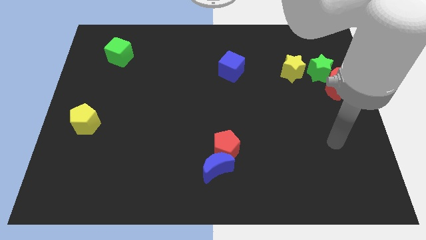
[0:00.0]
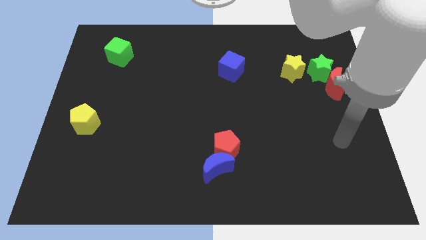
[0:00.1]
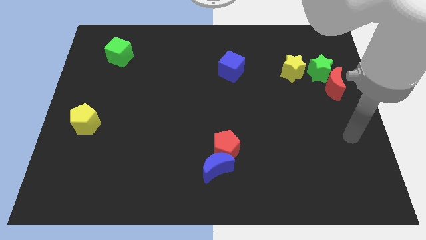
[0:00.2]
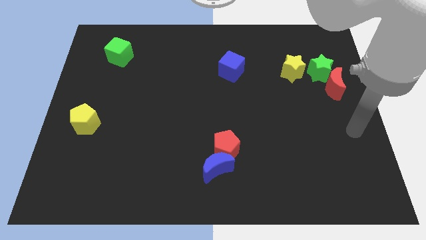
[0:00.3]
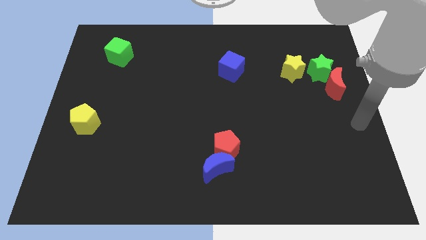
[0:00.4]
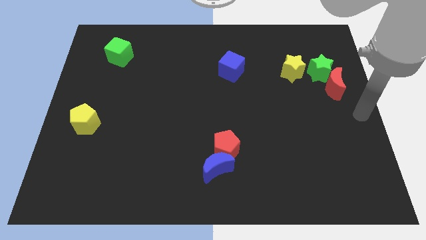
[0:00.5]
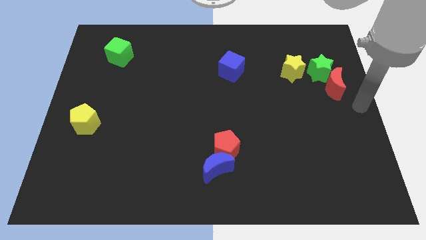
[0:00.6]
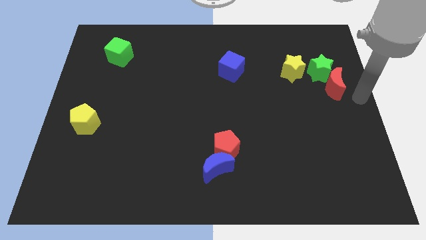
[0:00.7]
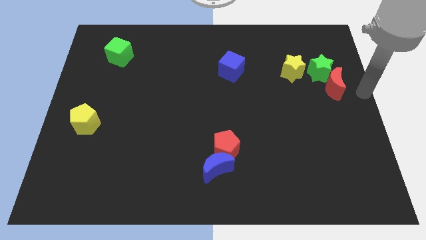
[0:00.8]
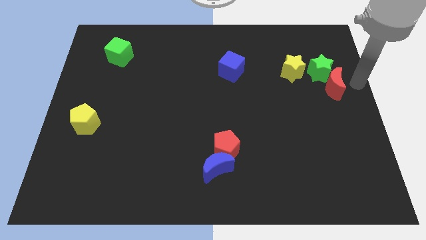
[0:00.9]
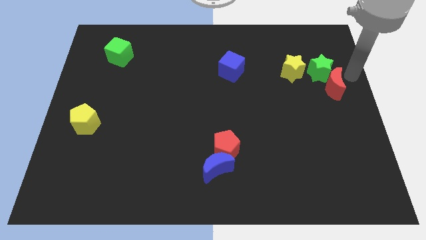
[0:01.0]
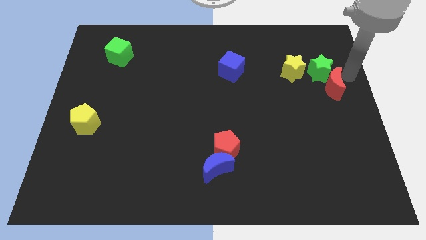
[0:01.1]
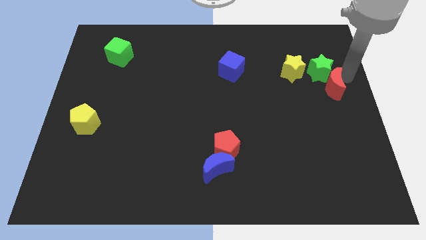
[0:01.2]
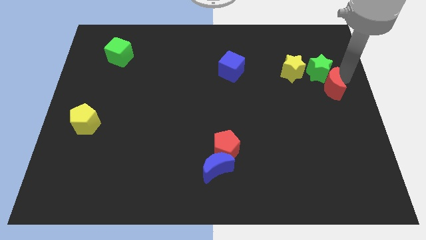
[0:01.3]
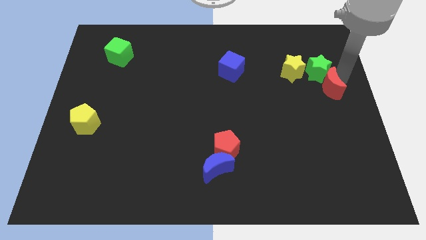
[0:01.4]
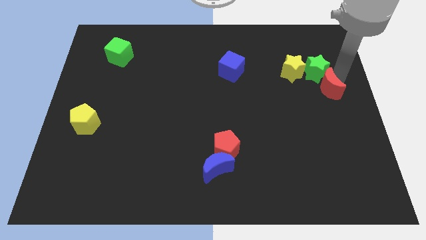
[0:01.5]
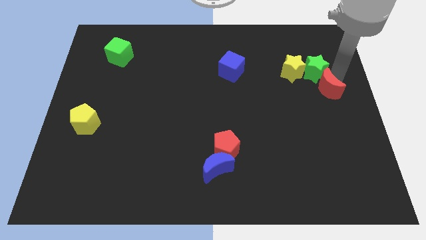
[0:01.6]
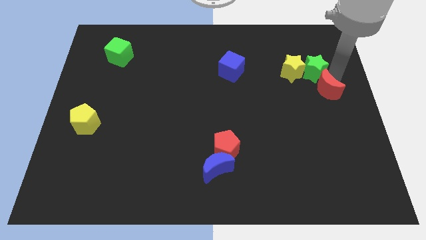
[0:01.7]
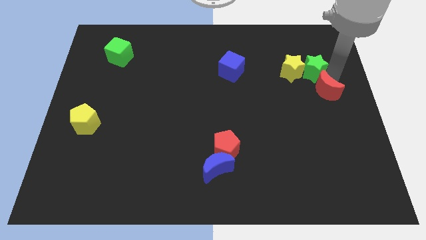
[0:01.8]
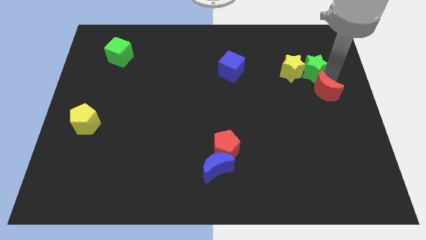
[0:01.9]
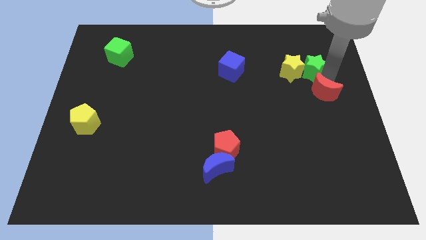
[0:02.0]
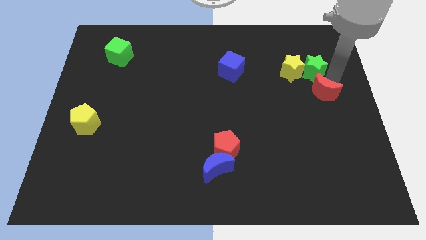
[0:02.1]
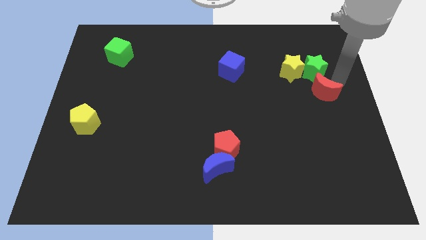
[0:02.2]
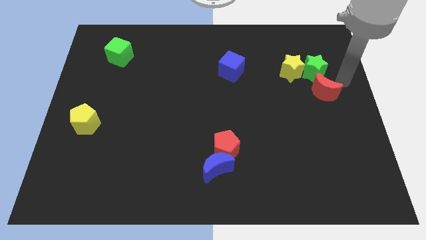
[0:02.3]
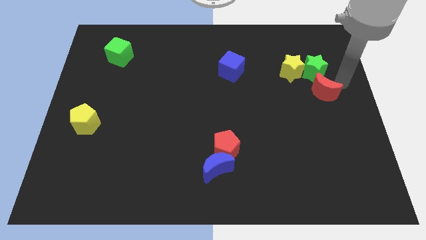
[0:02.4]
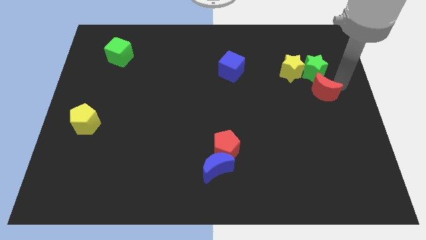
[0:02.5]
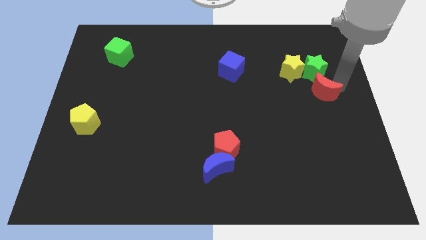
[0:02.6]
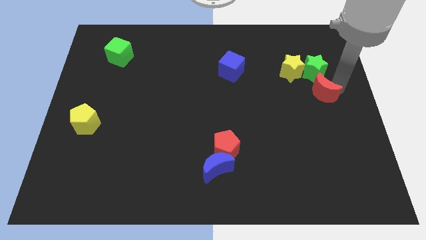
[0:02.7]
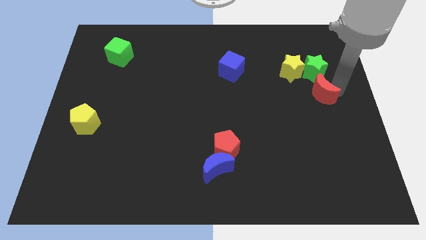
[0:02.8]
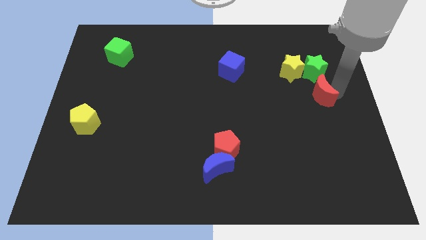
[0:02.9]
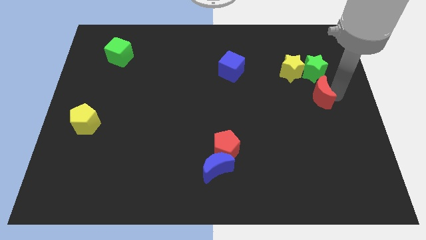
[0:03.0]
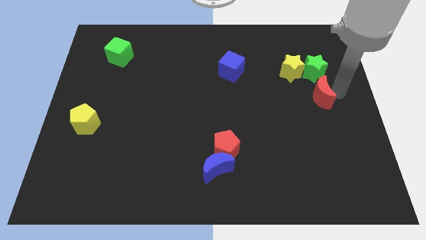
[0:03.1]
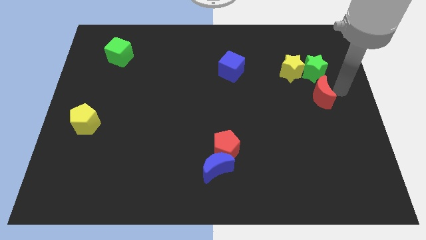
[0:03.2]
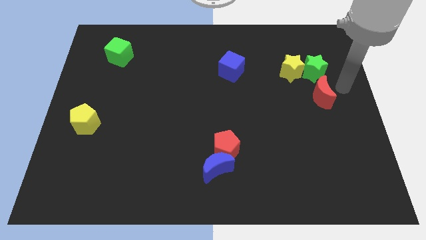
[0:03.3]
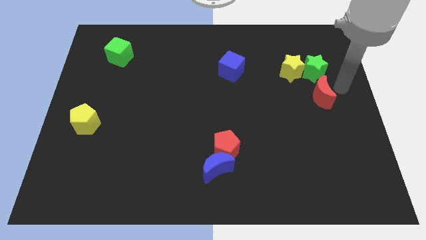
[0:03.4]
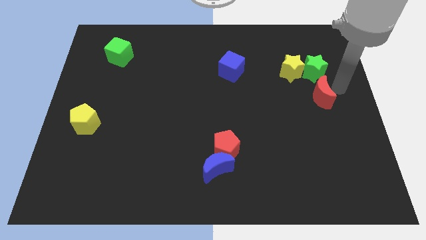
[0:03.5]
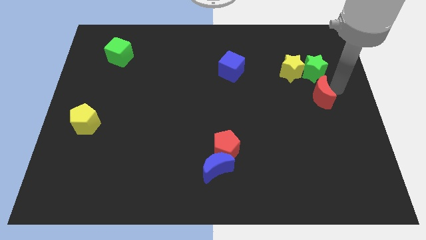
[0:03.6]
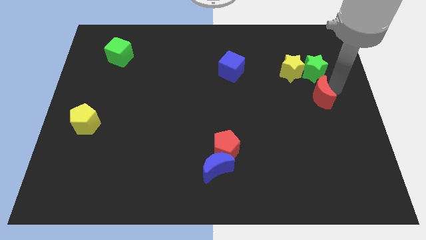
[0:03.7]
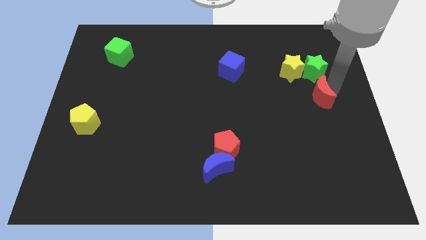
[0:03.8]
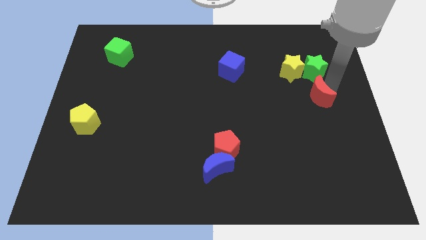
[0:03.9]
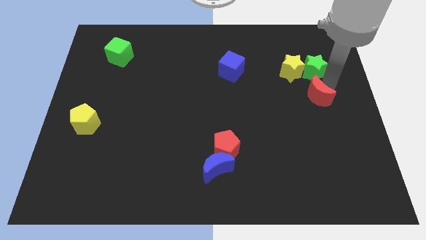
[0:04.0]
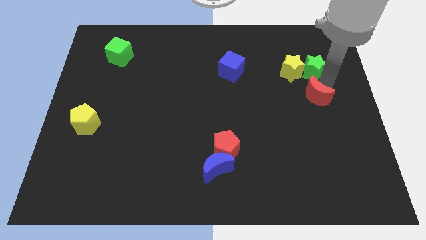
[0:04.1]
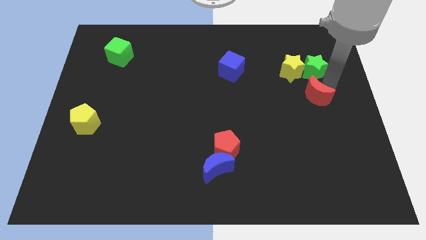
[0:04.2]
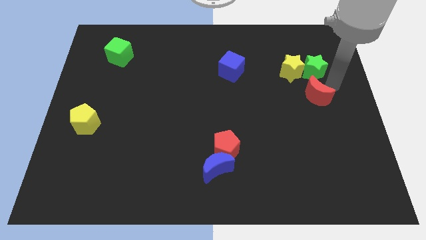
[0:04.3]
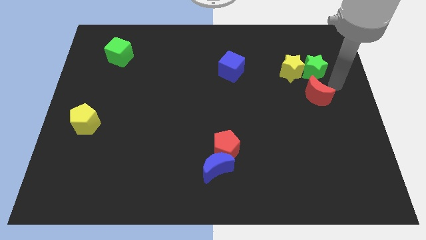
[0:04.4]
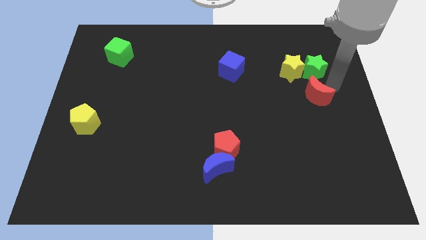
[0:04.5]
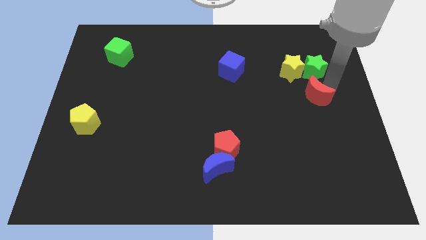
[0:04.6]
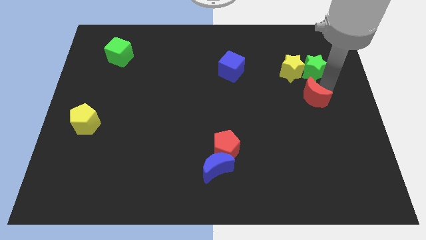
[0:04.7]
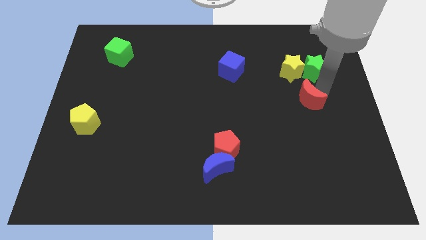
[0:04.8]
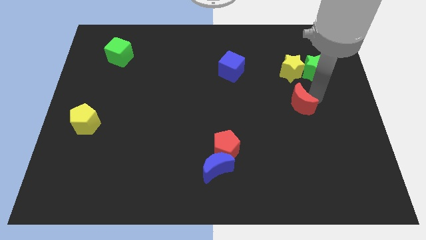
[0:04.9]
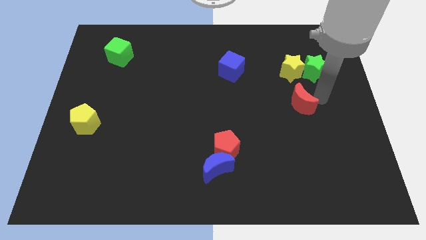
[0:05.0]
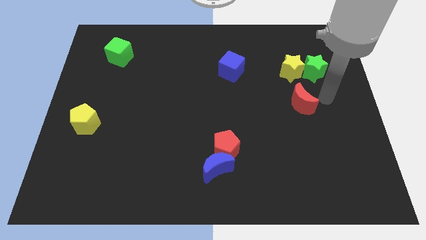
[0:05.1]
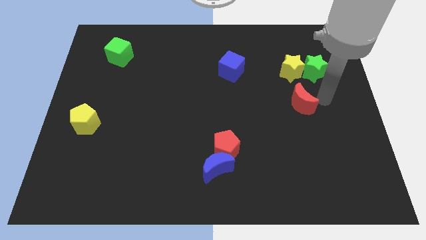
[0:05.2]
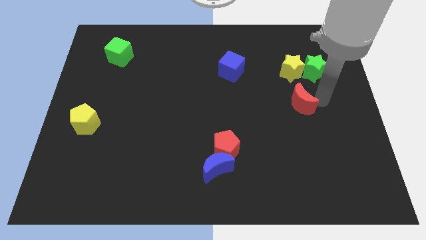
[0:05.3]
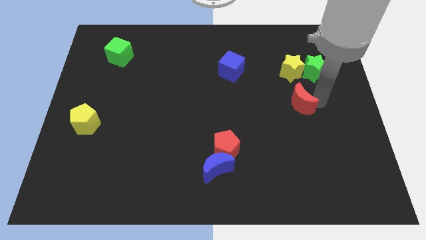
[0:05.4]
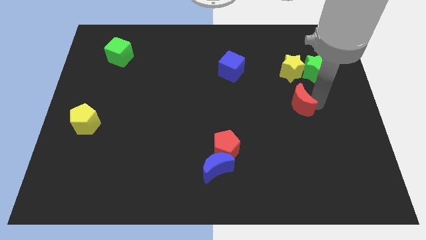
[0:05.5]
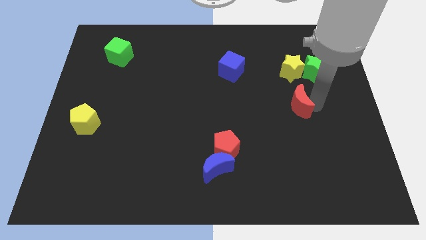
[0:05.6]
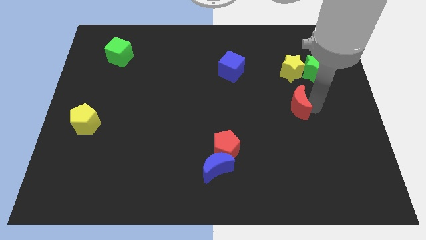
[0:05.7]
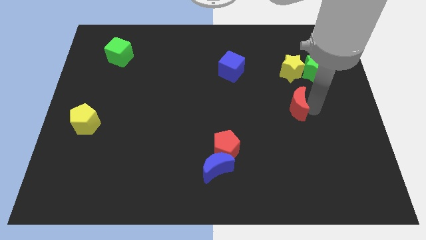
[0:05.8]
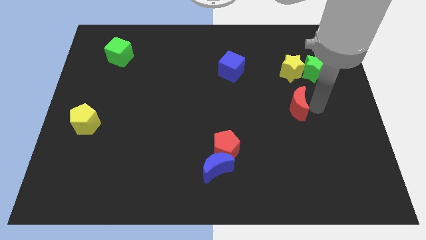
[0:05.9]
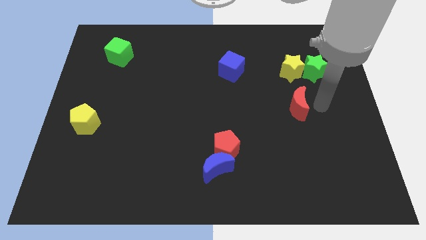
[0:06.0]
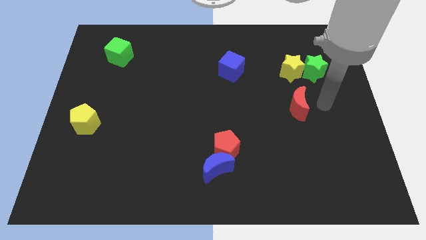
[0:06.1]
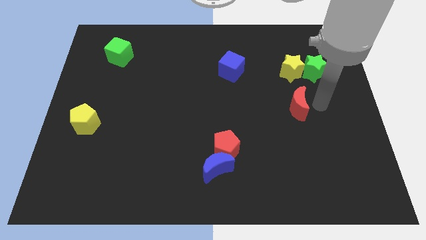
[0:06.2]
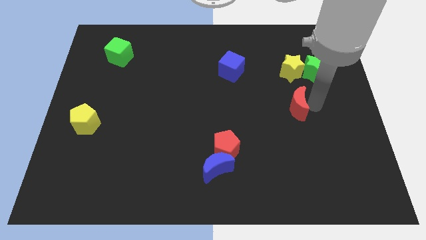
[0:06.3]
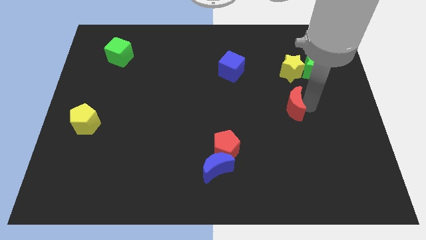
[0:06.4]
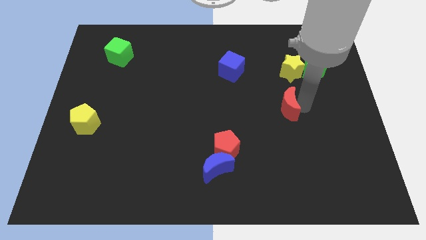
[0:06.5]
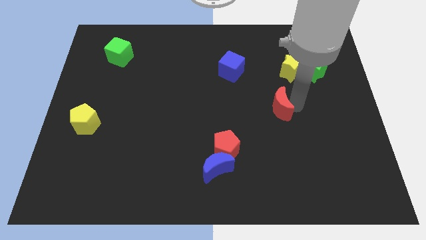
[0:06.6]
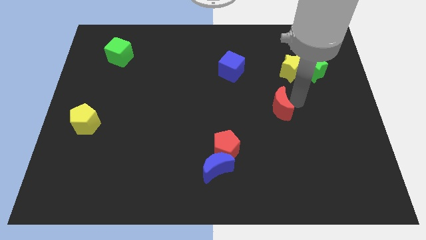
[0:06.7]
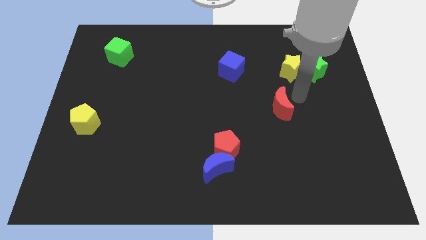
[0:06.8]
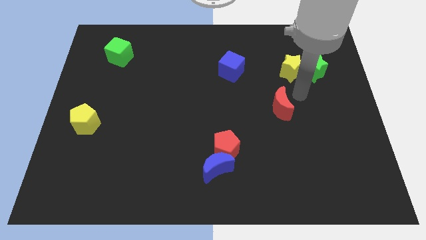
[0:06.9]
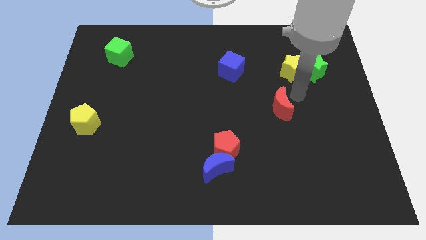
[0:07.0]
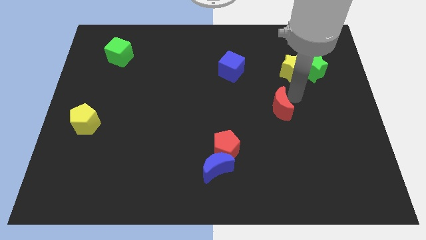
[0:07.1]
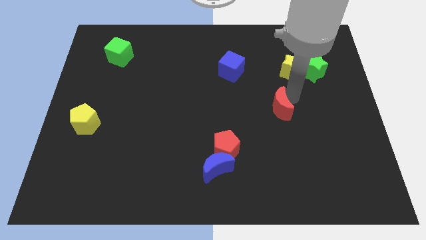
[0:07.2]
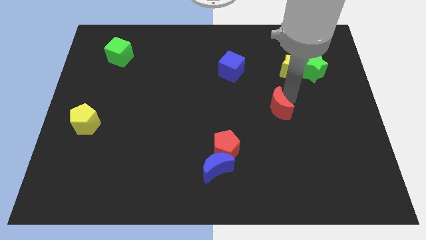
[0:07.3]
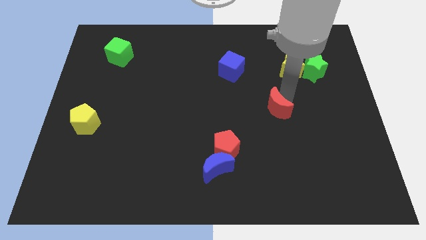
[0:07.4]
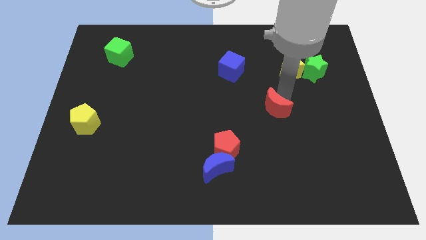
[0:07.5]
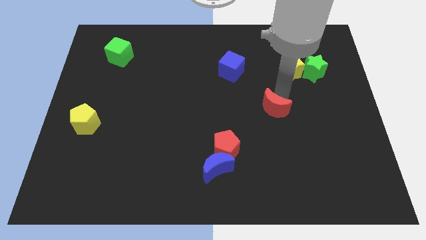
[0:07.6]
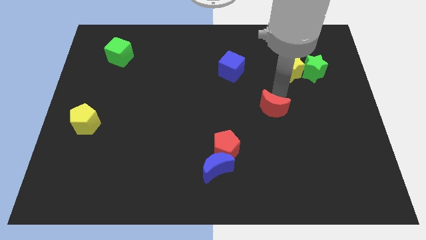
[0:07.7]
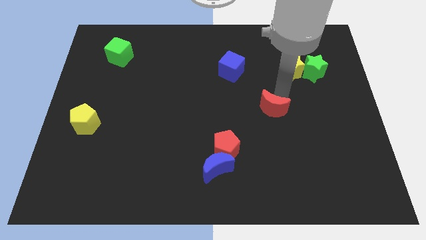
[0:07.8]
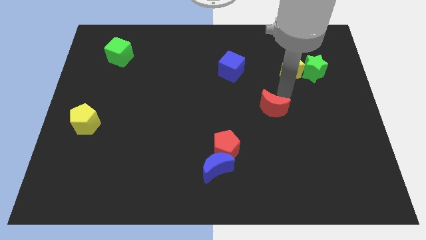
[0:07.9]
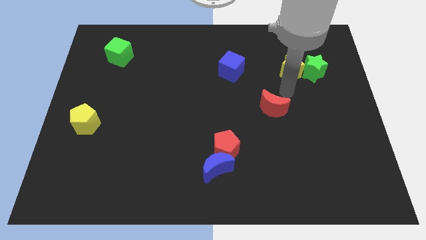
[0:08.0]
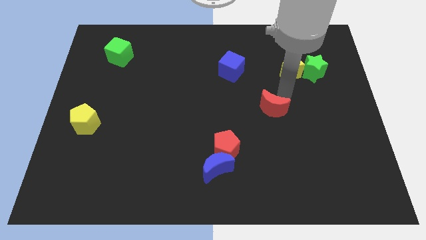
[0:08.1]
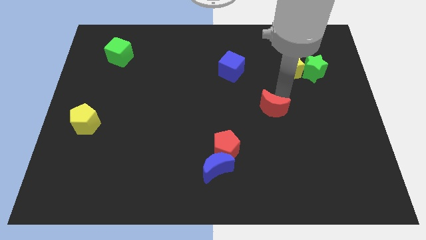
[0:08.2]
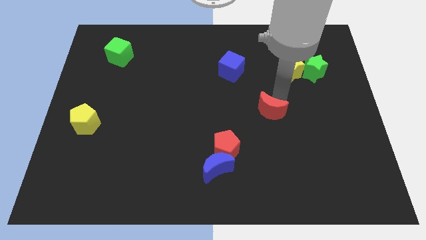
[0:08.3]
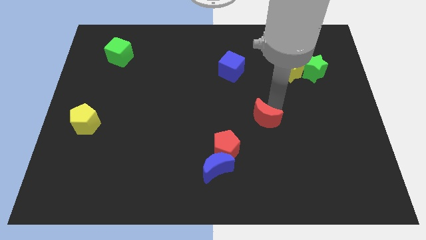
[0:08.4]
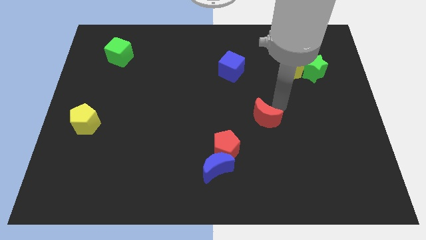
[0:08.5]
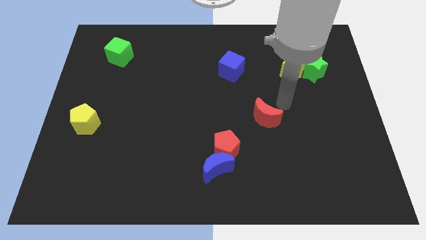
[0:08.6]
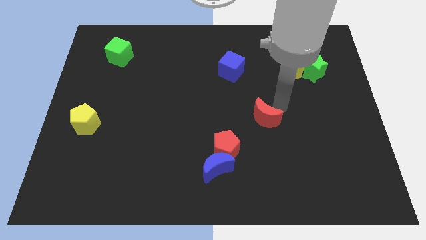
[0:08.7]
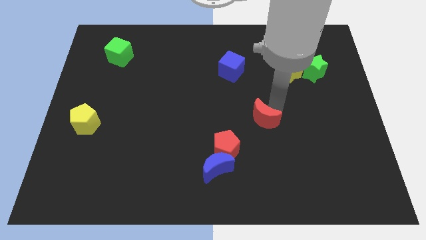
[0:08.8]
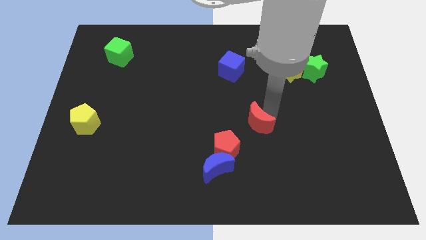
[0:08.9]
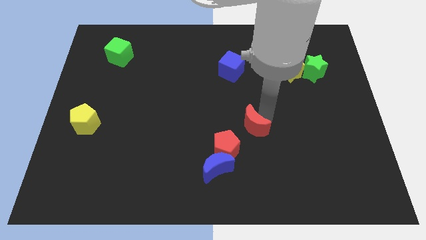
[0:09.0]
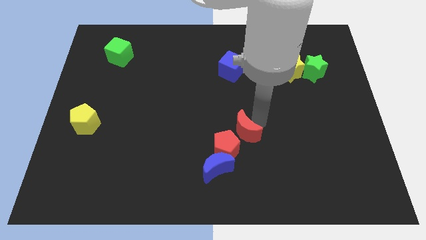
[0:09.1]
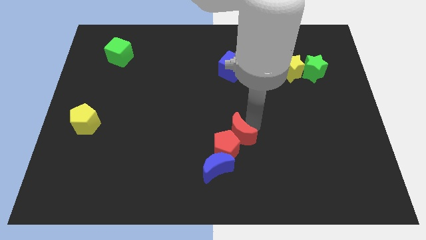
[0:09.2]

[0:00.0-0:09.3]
put the red moon towards the red pentagon
